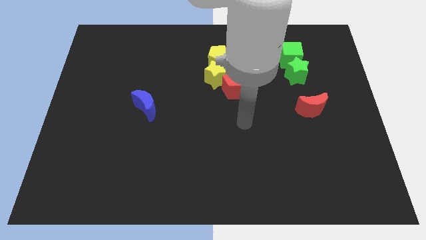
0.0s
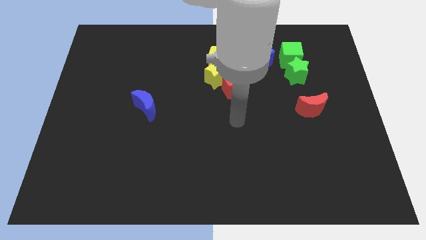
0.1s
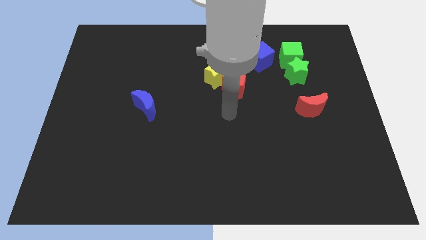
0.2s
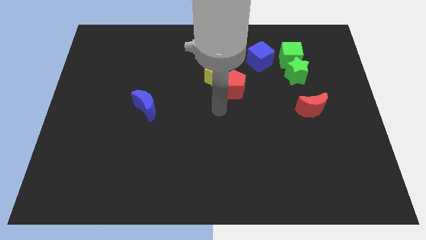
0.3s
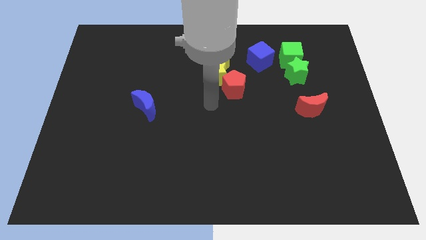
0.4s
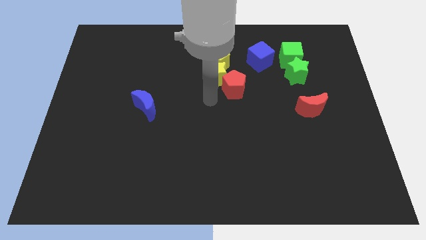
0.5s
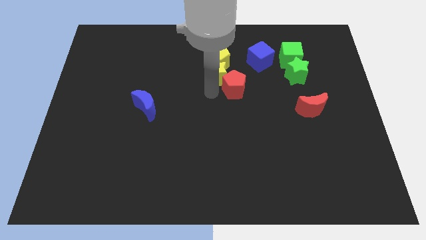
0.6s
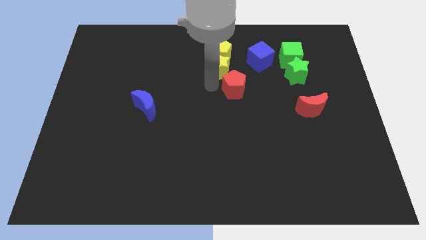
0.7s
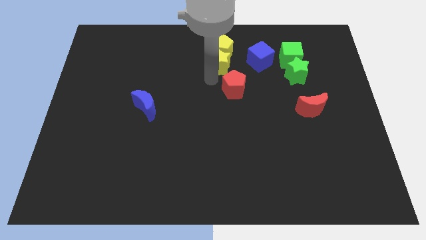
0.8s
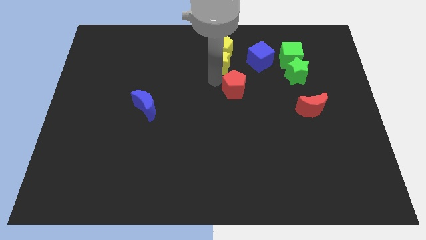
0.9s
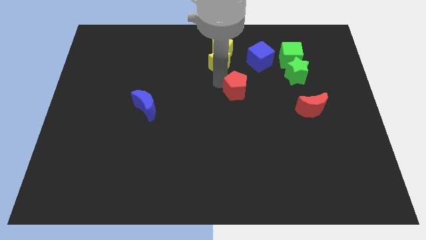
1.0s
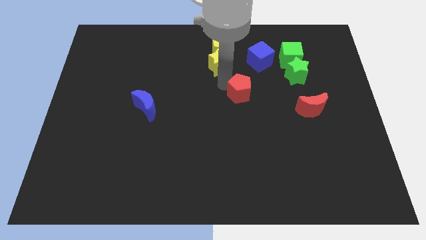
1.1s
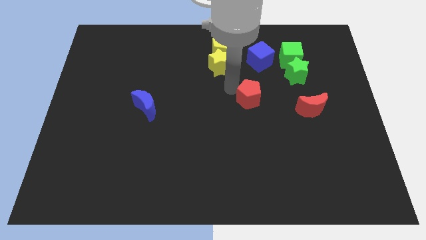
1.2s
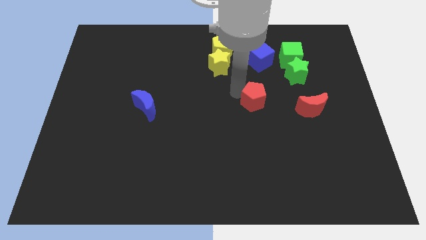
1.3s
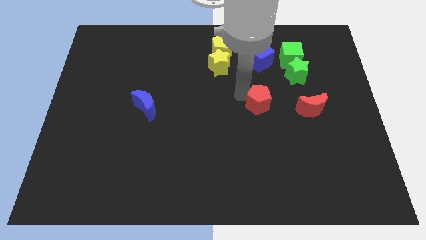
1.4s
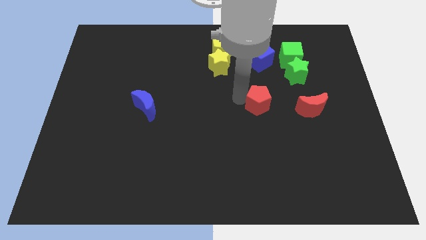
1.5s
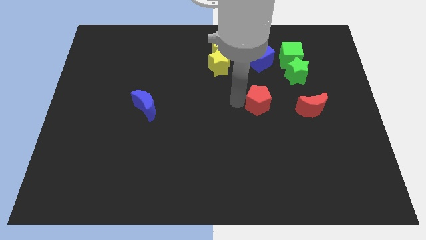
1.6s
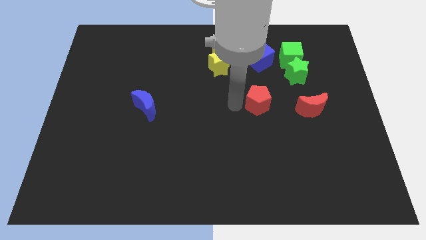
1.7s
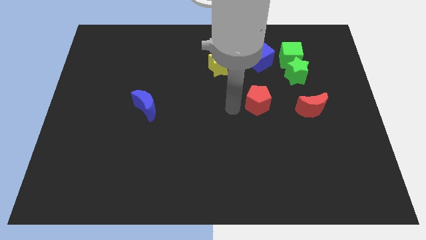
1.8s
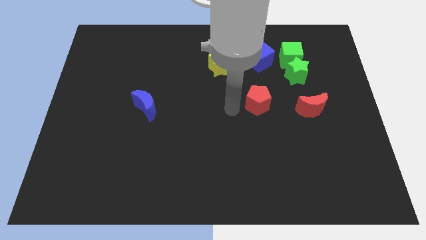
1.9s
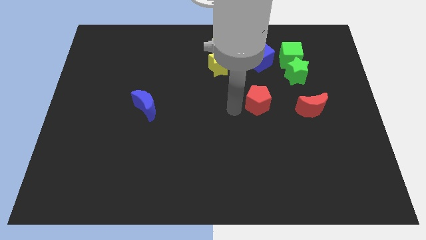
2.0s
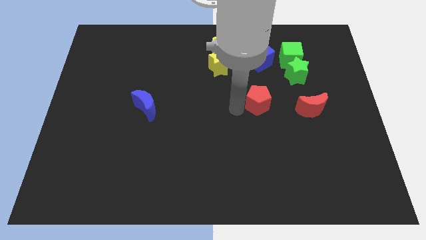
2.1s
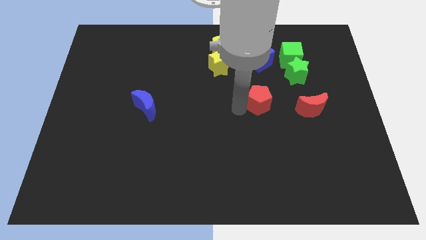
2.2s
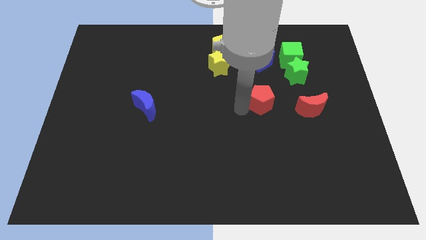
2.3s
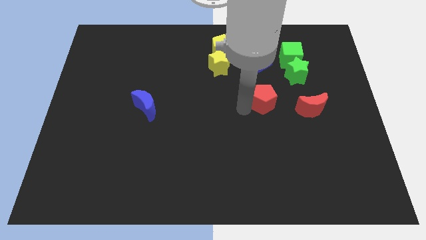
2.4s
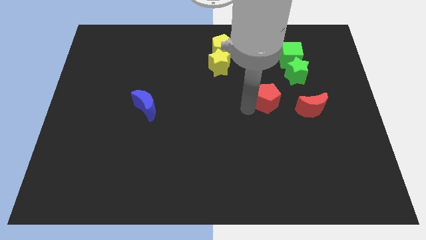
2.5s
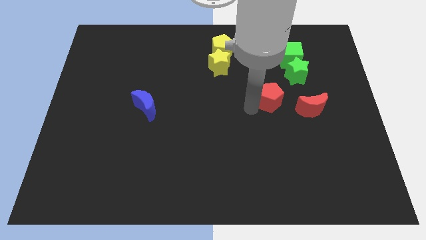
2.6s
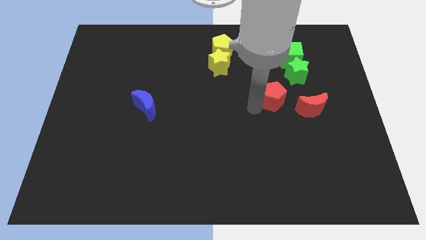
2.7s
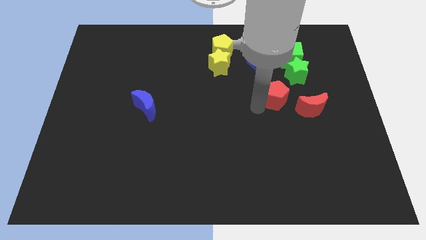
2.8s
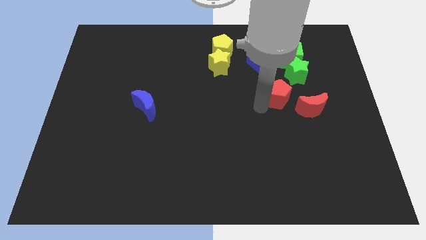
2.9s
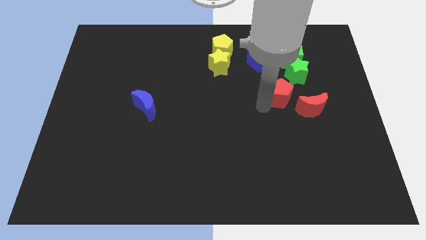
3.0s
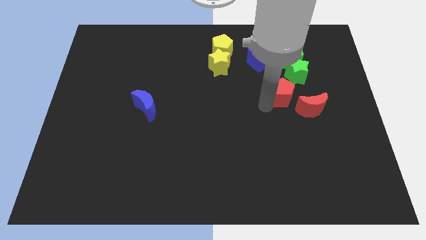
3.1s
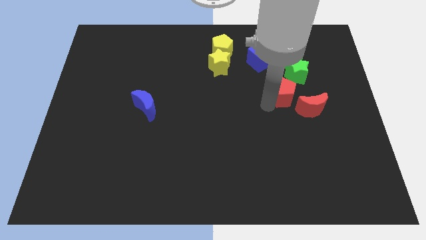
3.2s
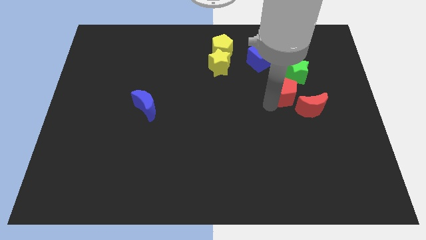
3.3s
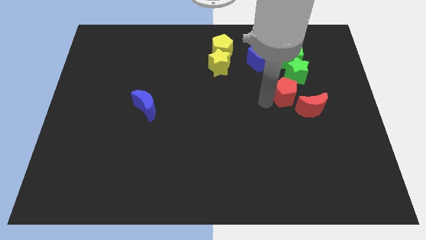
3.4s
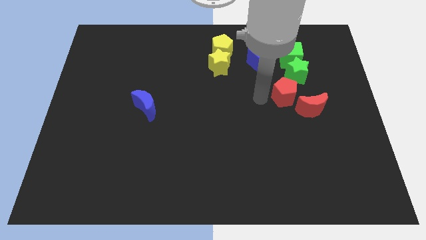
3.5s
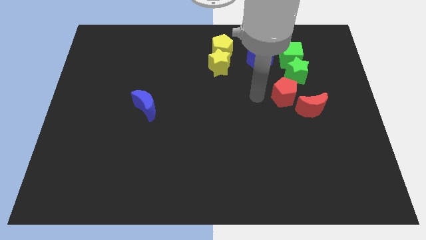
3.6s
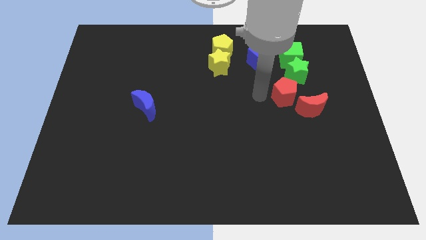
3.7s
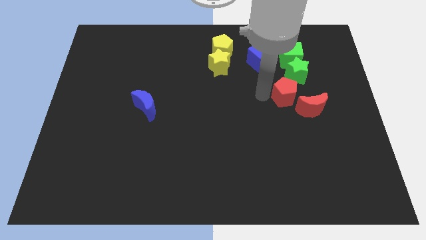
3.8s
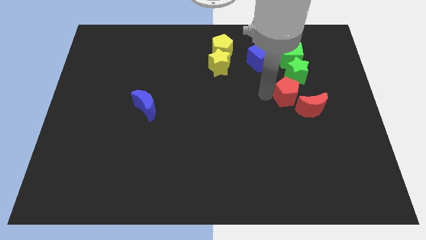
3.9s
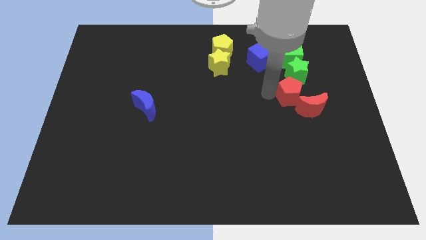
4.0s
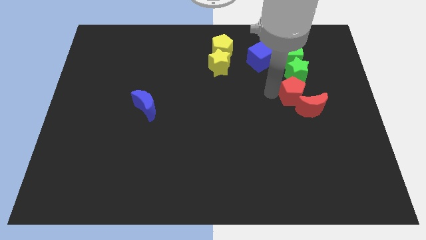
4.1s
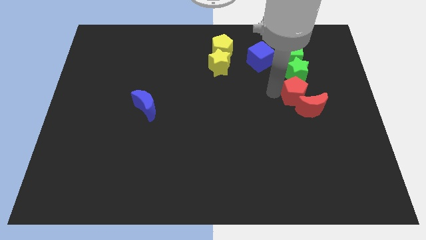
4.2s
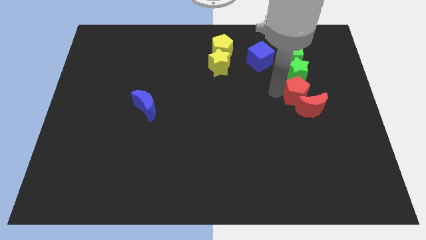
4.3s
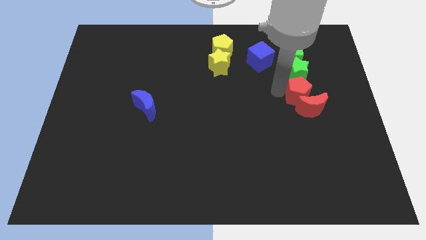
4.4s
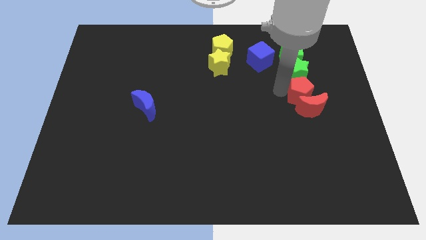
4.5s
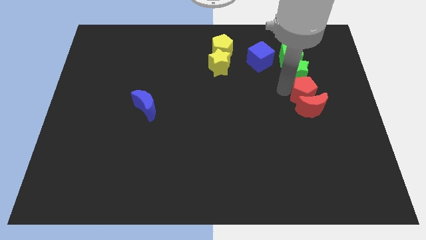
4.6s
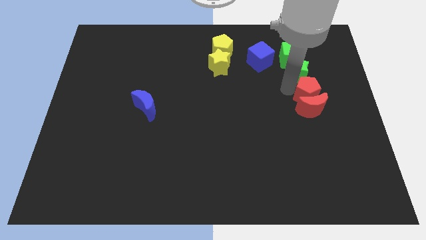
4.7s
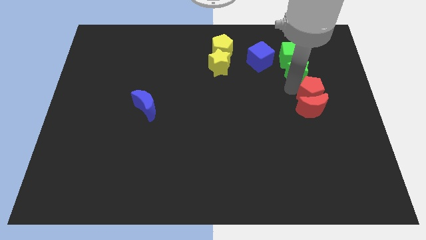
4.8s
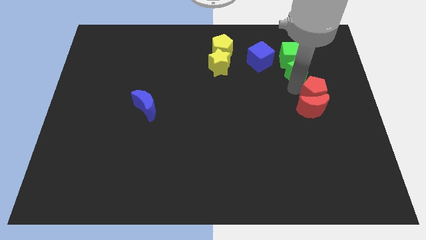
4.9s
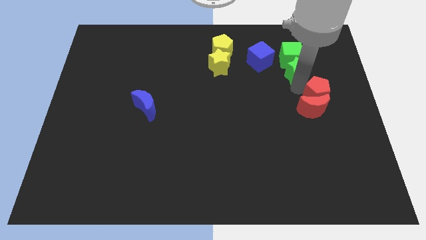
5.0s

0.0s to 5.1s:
push the red pentagon to the right side

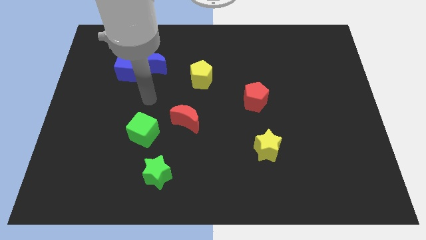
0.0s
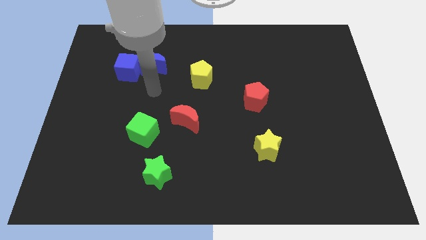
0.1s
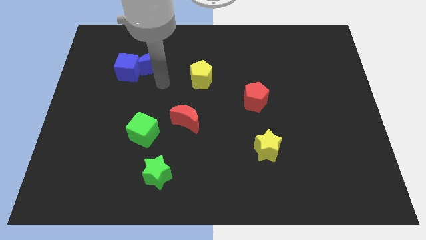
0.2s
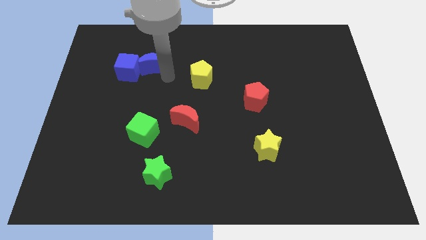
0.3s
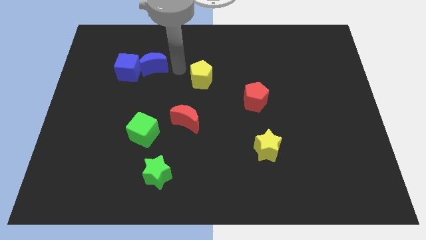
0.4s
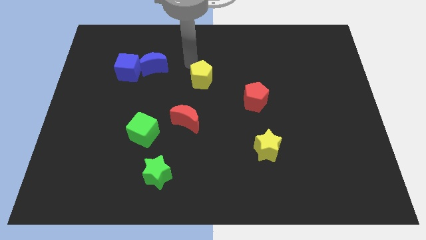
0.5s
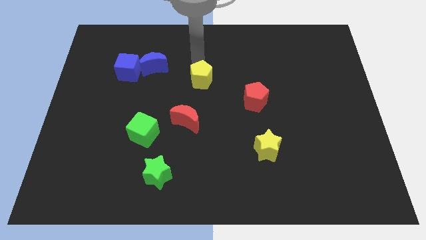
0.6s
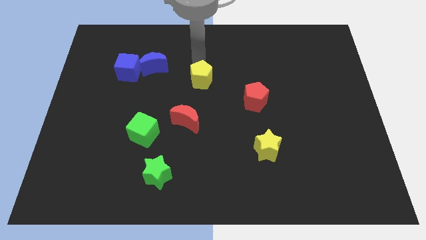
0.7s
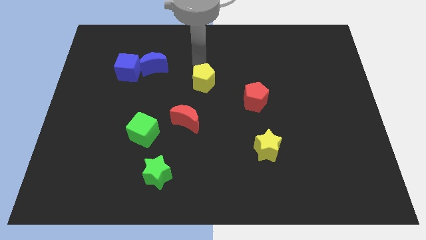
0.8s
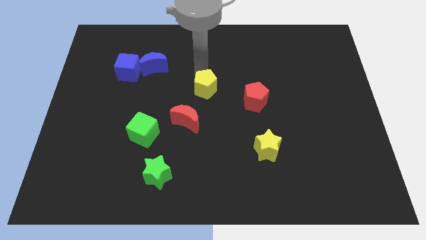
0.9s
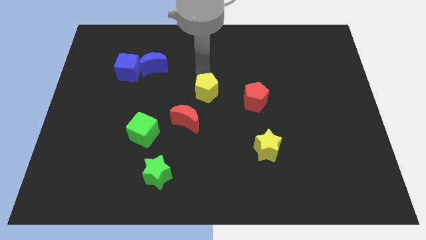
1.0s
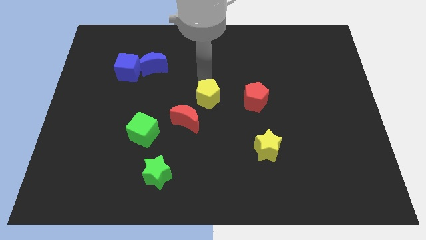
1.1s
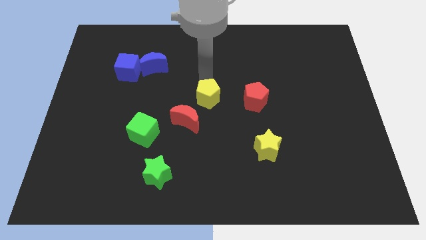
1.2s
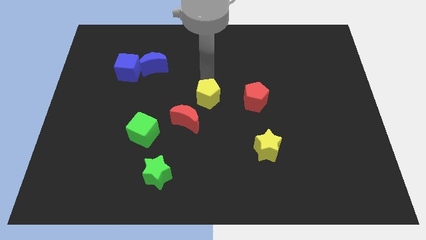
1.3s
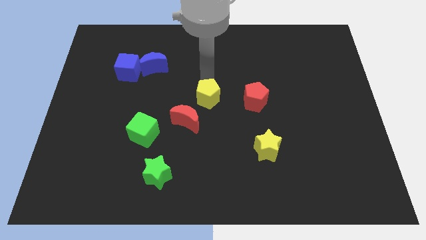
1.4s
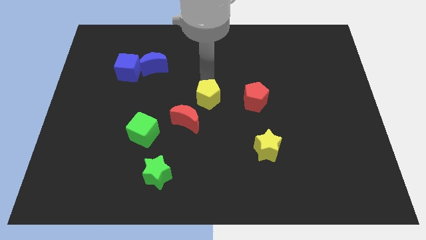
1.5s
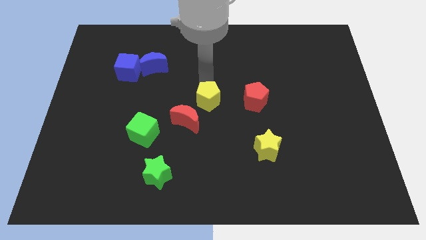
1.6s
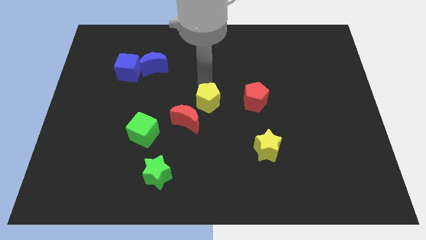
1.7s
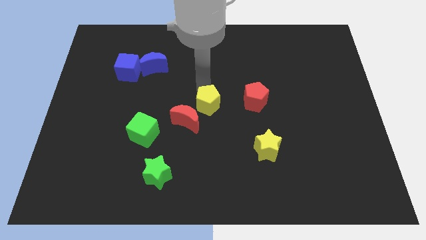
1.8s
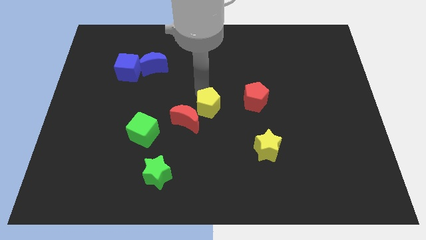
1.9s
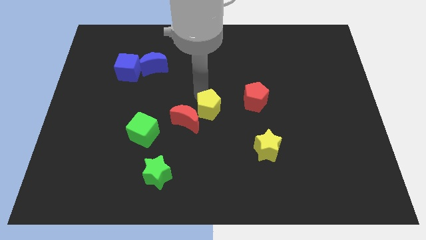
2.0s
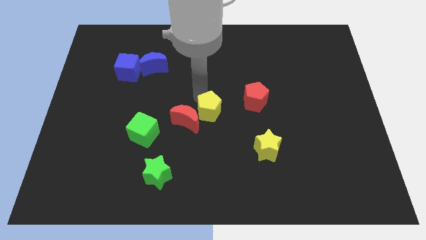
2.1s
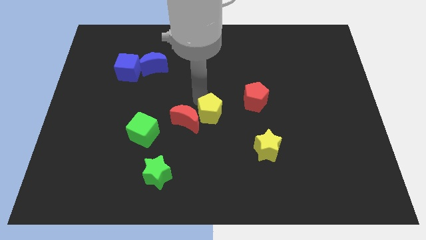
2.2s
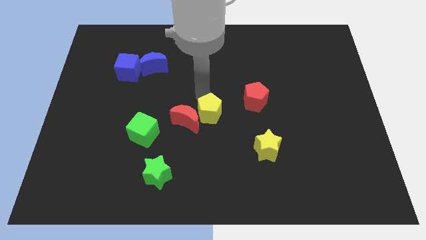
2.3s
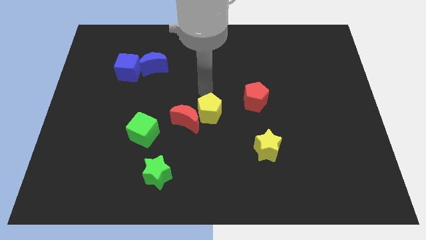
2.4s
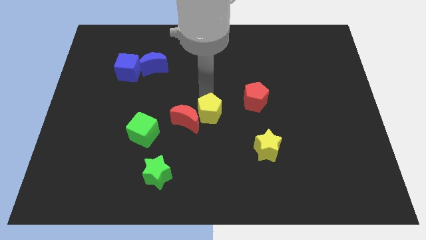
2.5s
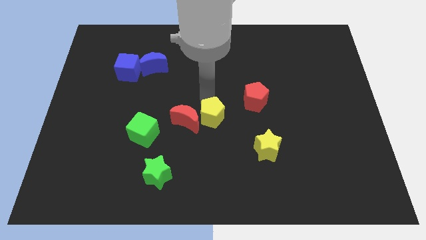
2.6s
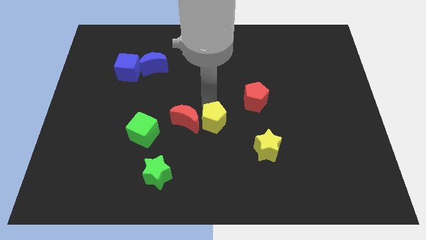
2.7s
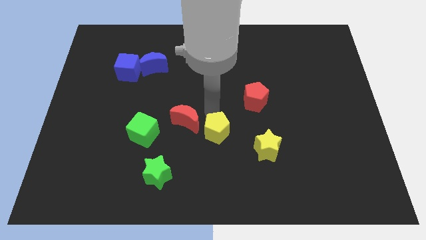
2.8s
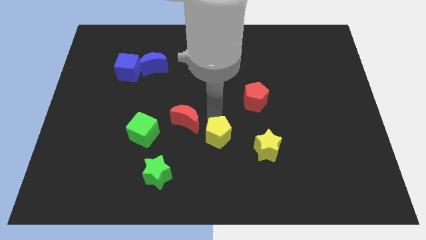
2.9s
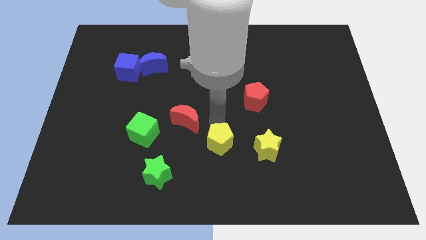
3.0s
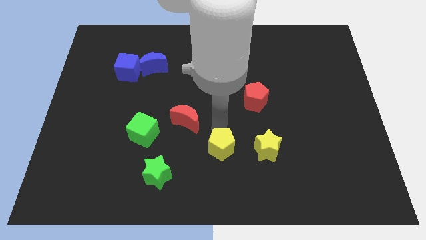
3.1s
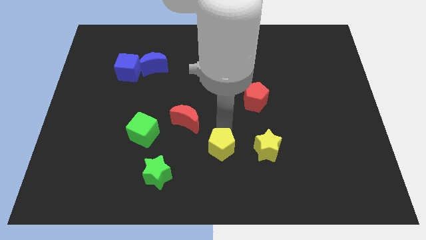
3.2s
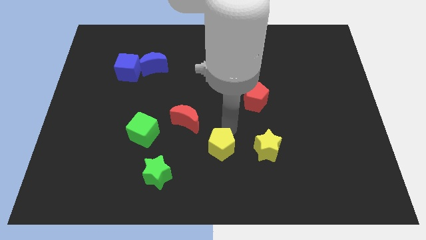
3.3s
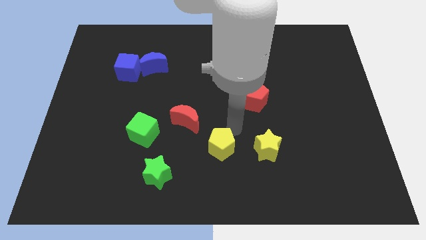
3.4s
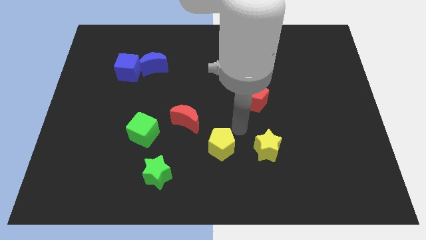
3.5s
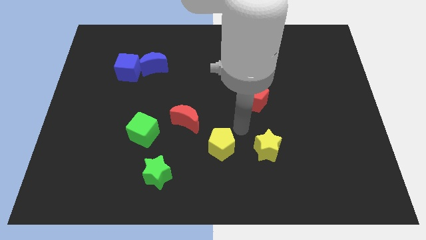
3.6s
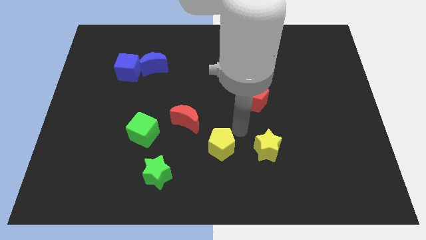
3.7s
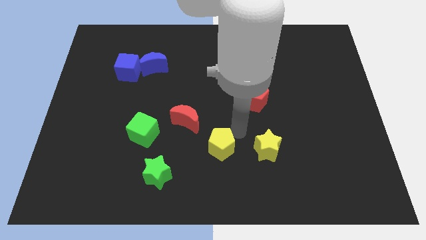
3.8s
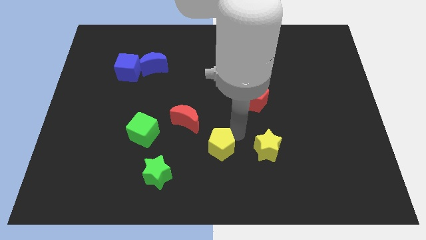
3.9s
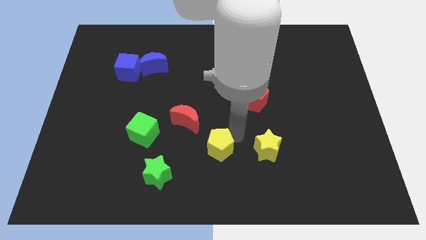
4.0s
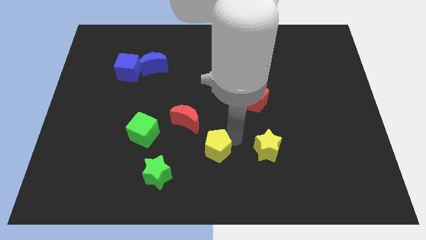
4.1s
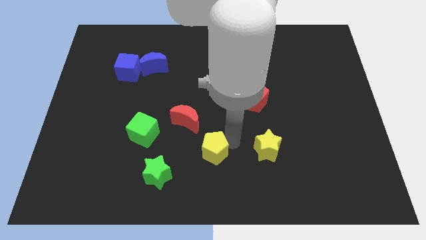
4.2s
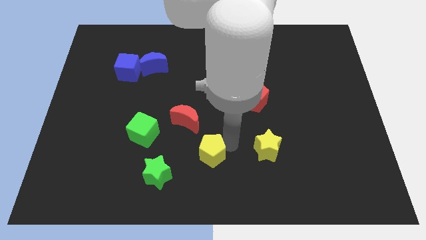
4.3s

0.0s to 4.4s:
push the yellow pentagon to the bottom
